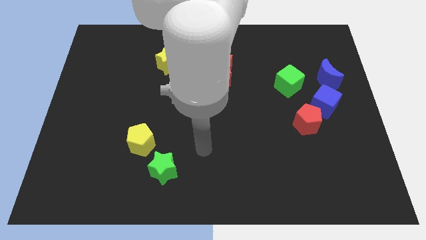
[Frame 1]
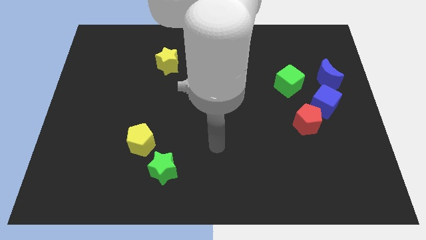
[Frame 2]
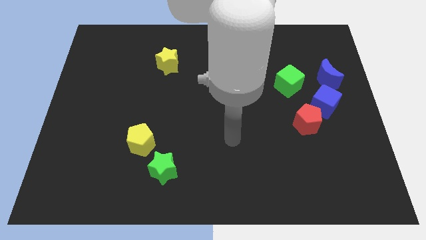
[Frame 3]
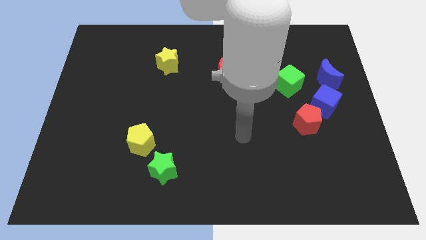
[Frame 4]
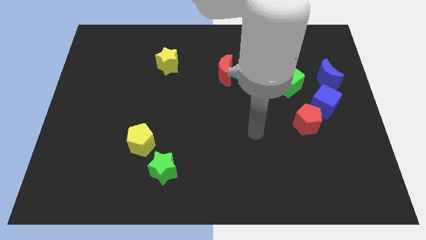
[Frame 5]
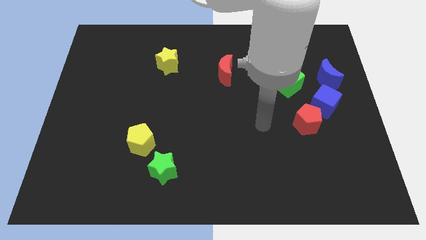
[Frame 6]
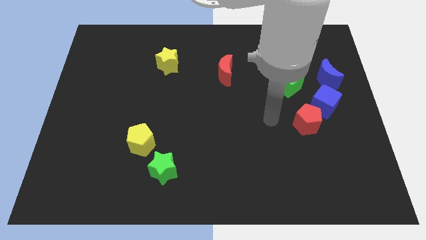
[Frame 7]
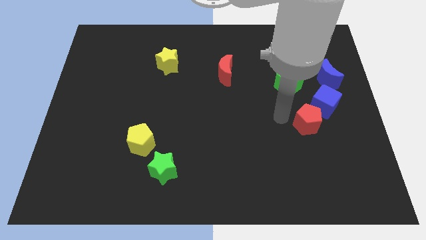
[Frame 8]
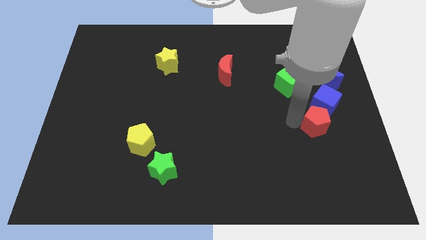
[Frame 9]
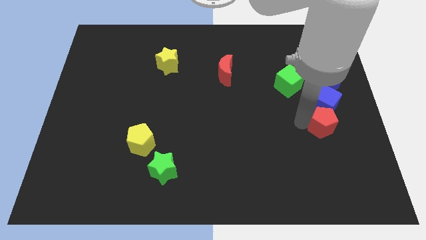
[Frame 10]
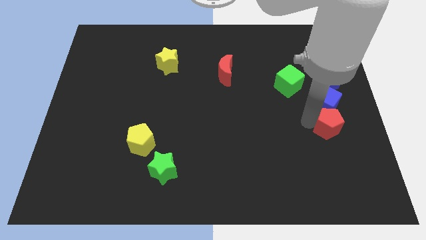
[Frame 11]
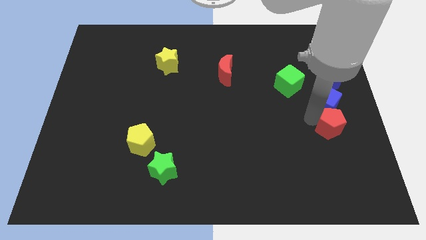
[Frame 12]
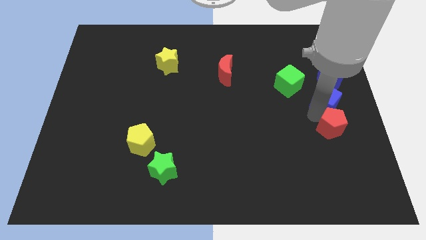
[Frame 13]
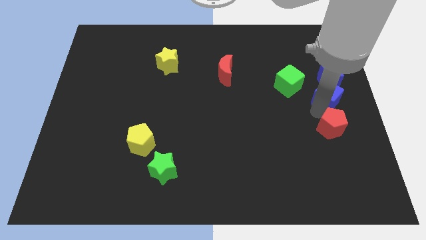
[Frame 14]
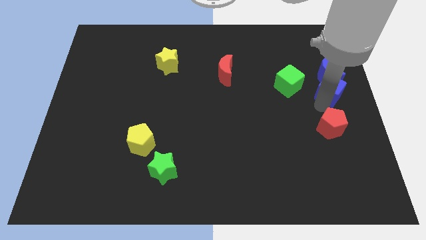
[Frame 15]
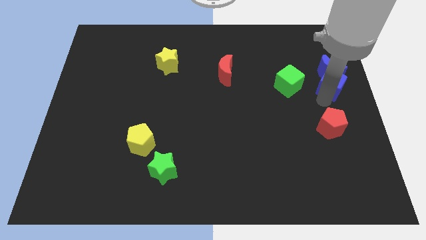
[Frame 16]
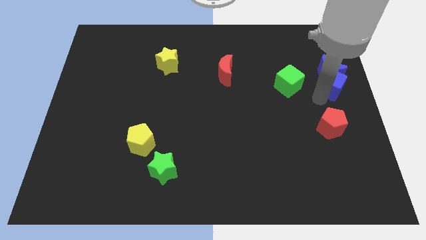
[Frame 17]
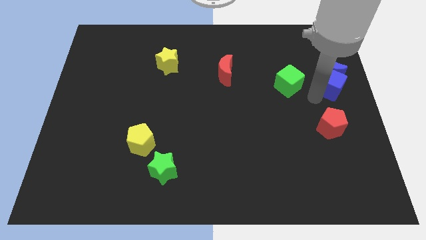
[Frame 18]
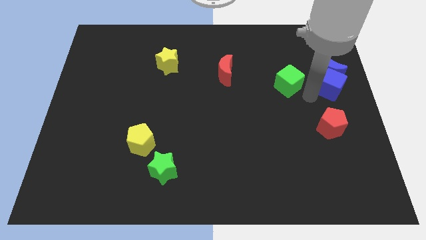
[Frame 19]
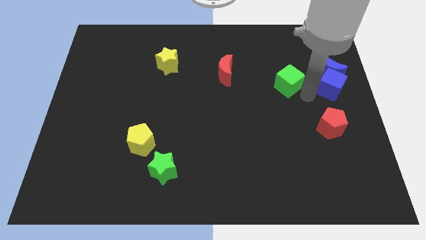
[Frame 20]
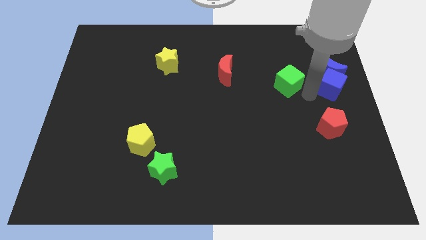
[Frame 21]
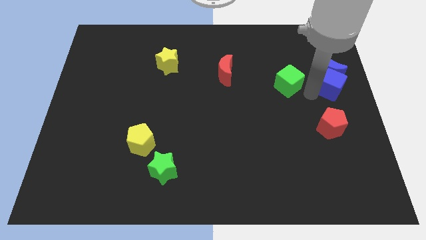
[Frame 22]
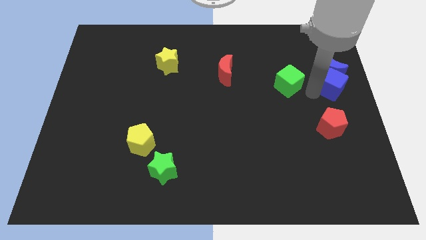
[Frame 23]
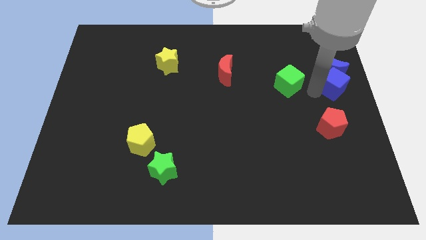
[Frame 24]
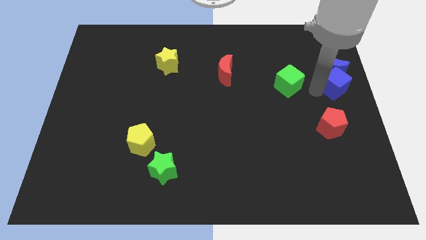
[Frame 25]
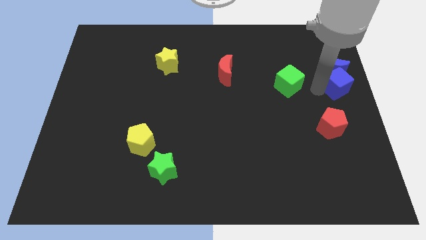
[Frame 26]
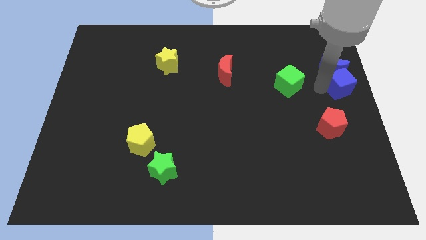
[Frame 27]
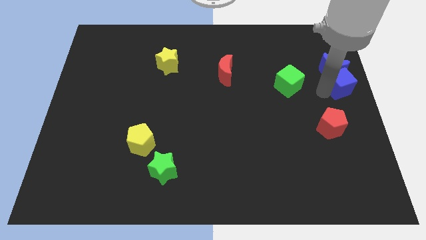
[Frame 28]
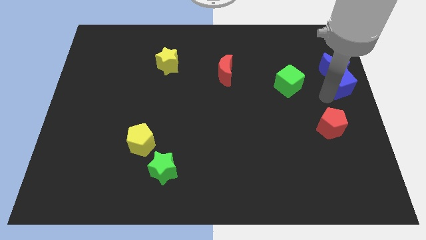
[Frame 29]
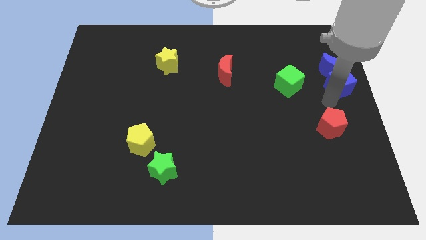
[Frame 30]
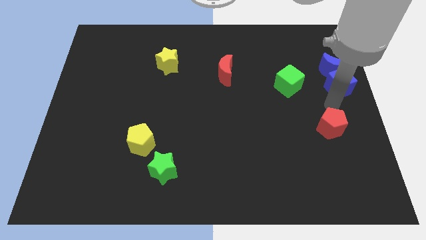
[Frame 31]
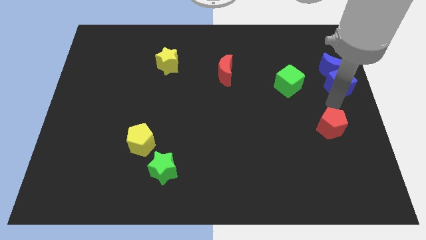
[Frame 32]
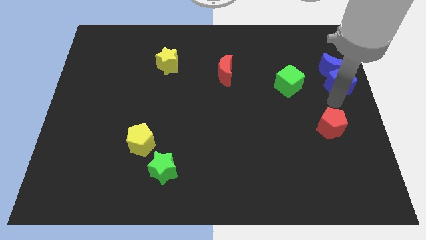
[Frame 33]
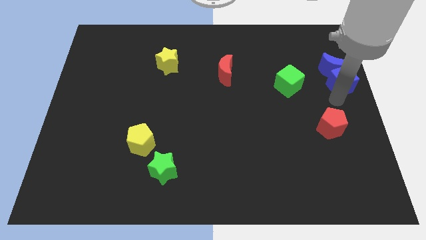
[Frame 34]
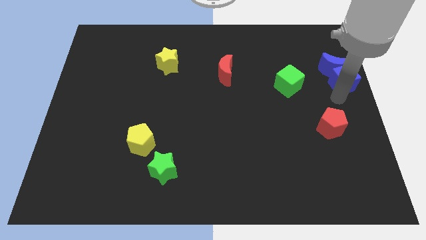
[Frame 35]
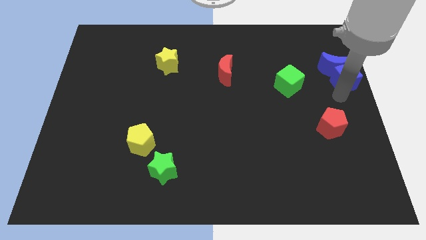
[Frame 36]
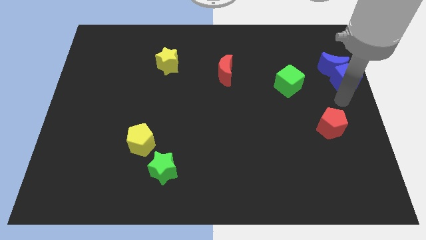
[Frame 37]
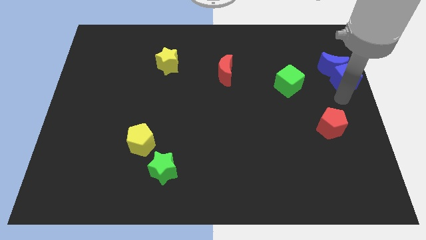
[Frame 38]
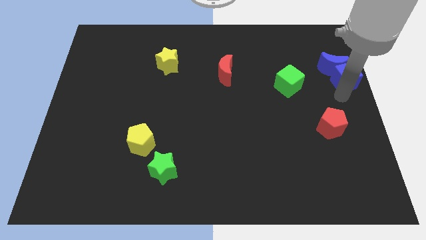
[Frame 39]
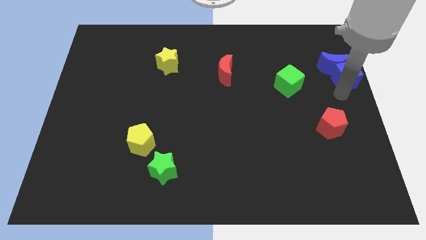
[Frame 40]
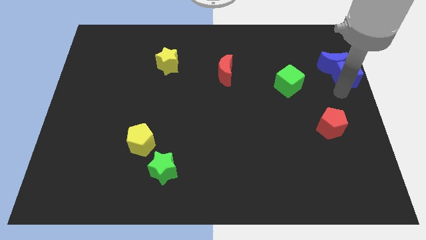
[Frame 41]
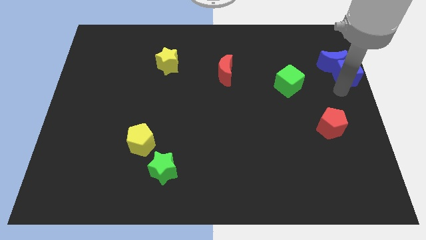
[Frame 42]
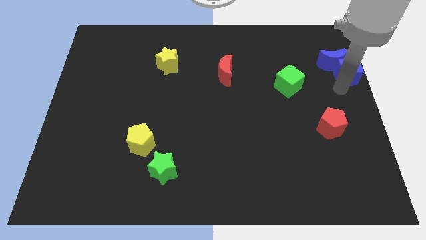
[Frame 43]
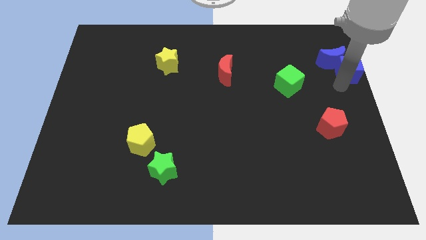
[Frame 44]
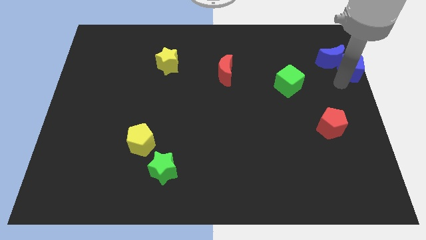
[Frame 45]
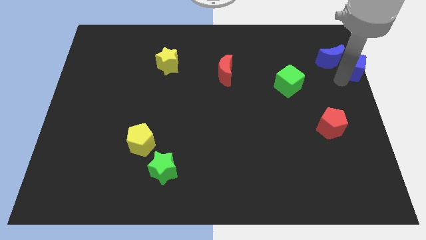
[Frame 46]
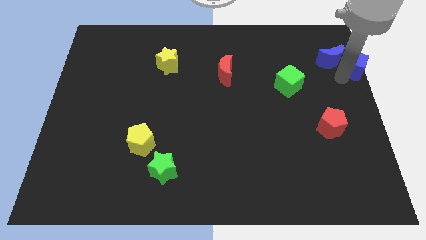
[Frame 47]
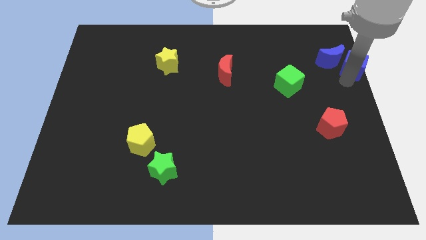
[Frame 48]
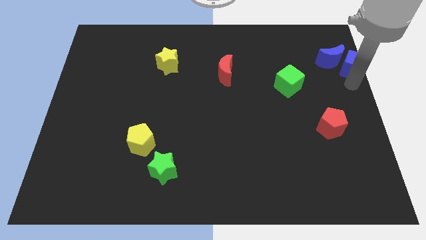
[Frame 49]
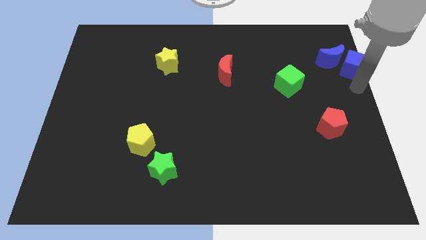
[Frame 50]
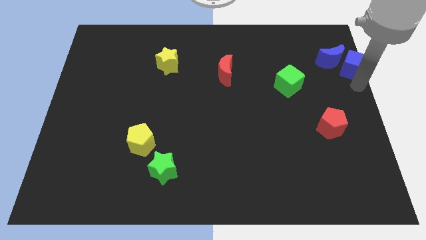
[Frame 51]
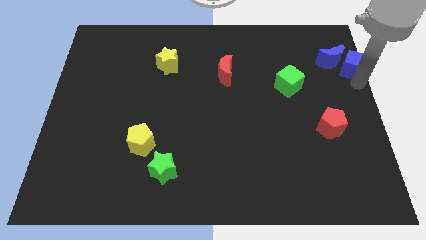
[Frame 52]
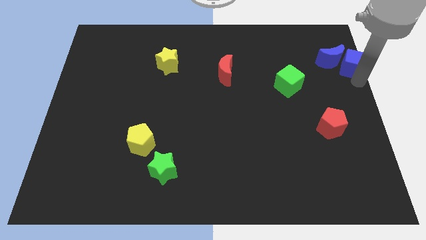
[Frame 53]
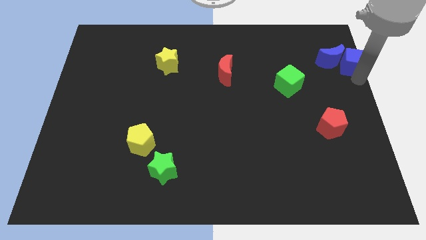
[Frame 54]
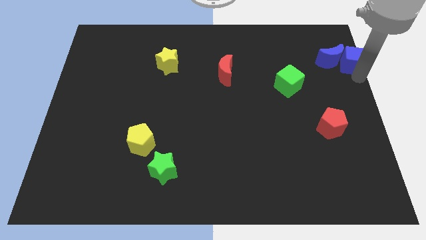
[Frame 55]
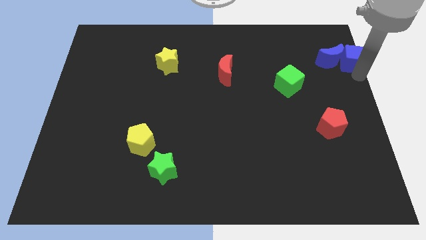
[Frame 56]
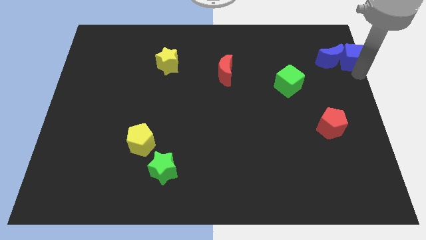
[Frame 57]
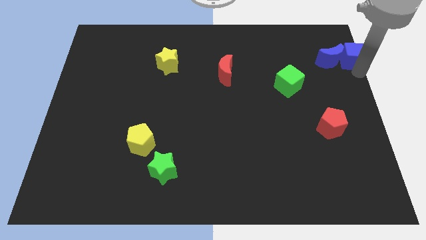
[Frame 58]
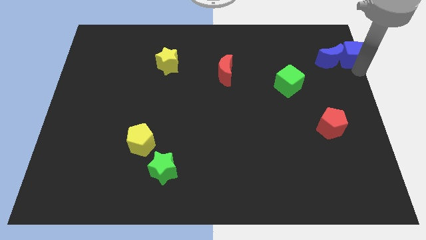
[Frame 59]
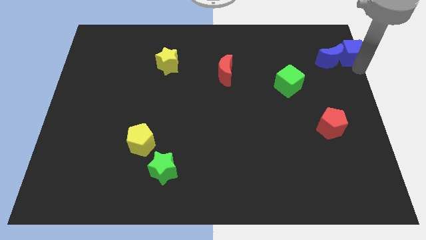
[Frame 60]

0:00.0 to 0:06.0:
slide the blue cube to the top right corner

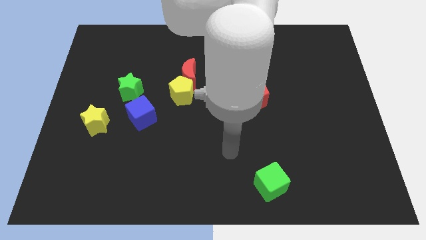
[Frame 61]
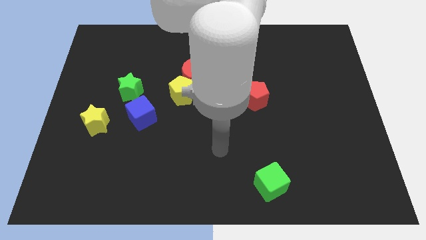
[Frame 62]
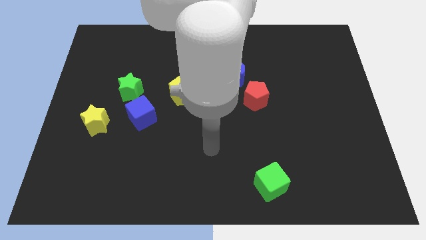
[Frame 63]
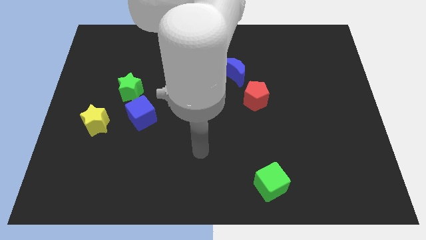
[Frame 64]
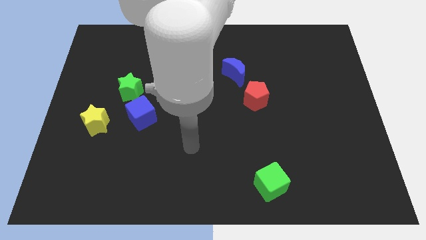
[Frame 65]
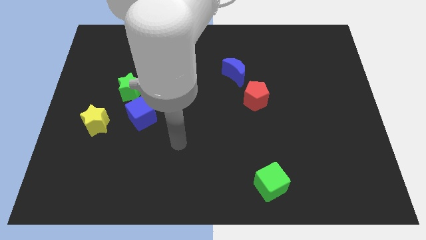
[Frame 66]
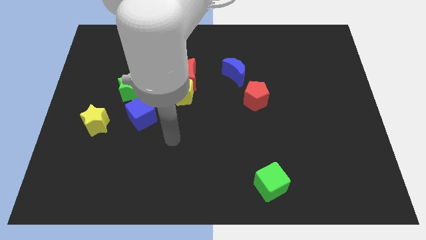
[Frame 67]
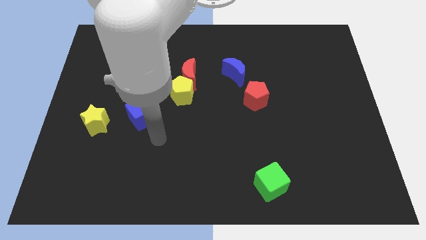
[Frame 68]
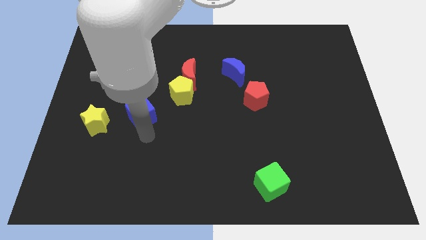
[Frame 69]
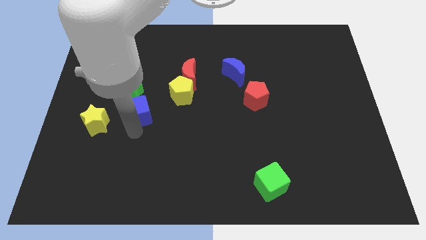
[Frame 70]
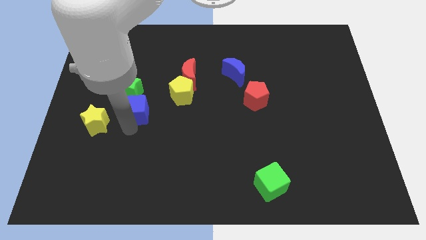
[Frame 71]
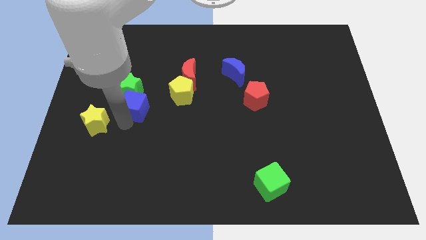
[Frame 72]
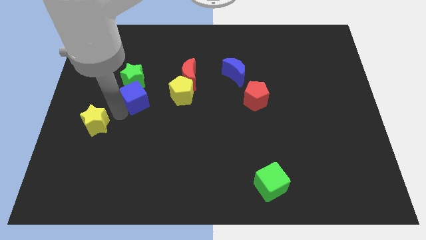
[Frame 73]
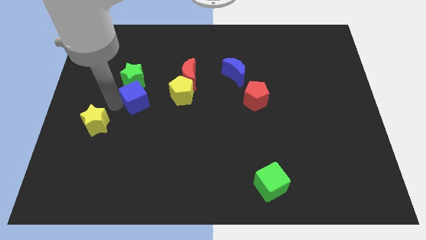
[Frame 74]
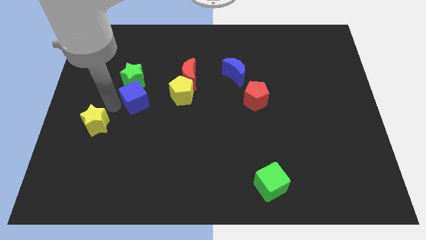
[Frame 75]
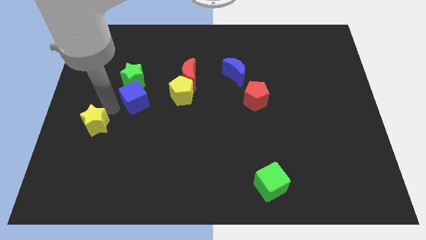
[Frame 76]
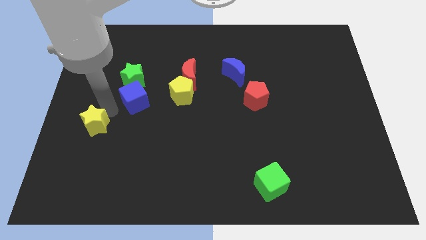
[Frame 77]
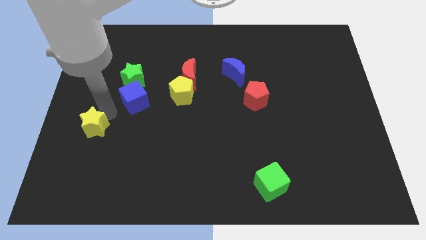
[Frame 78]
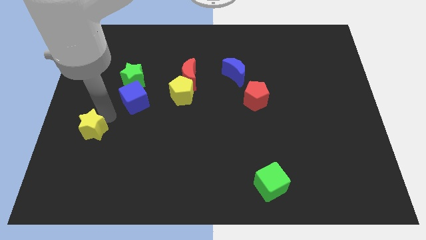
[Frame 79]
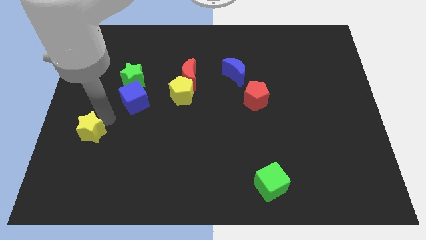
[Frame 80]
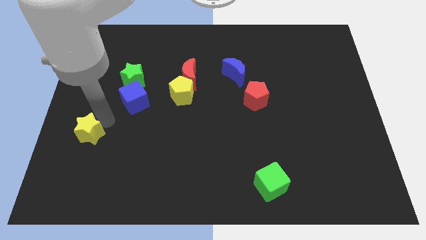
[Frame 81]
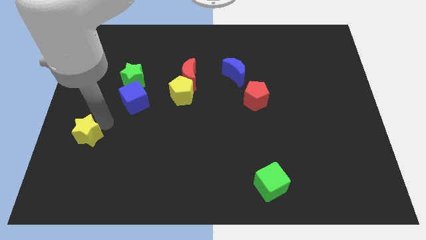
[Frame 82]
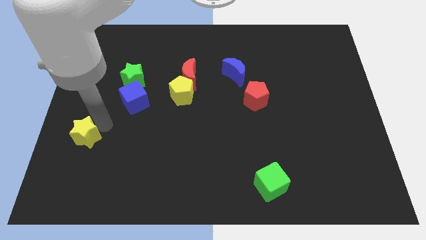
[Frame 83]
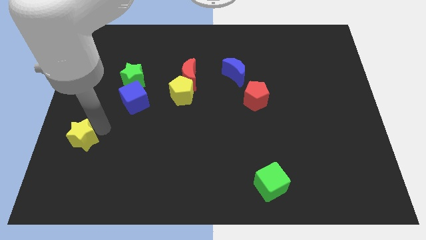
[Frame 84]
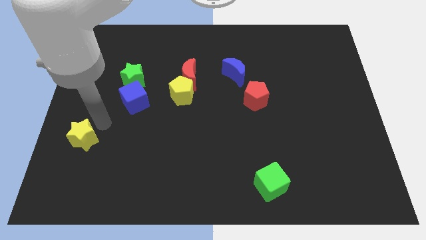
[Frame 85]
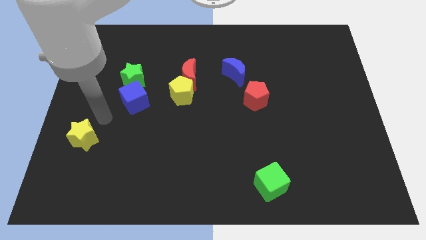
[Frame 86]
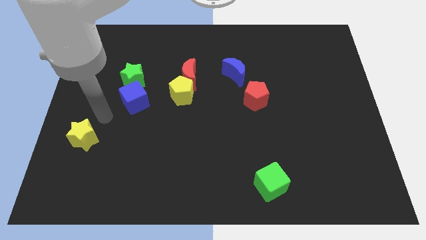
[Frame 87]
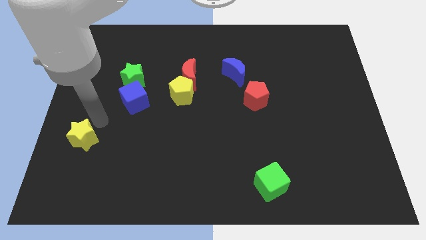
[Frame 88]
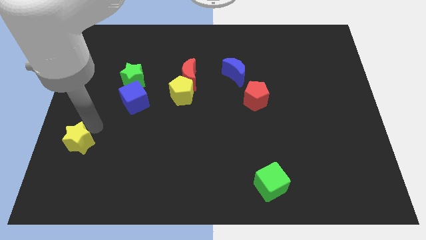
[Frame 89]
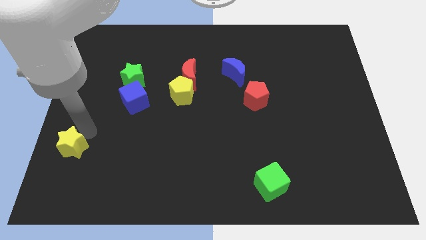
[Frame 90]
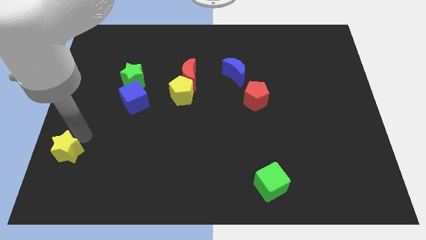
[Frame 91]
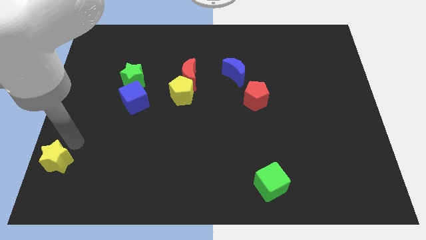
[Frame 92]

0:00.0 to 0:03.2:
move the yellow star to the bottom left
